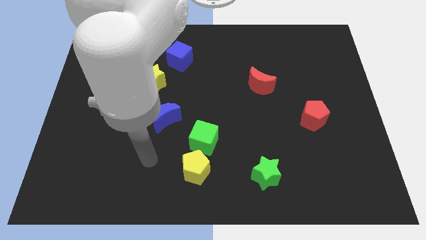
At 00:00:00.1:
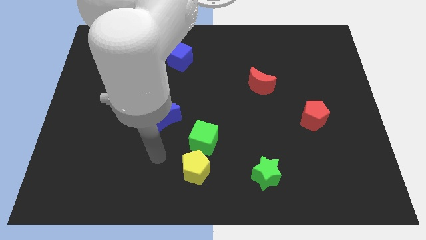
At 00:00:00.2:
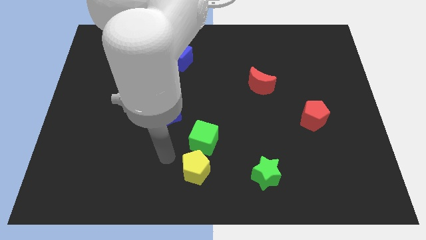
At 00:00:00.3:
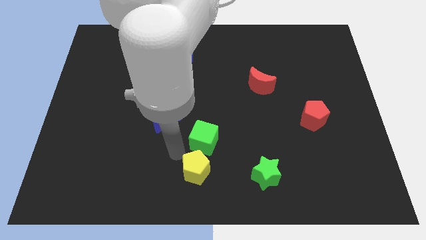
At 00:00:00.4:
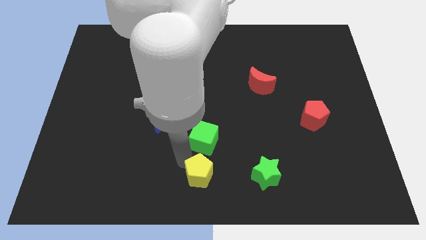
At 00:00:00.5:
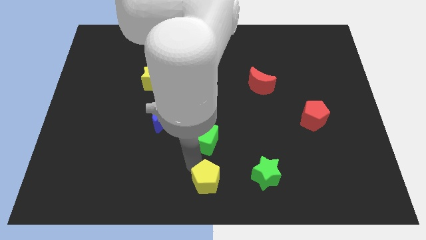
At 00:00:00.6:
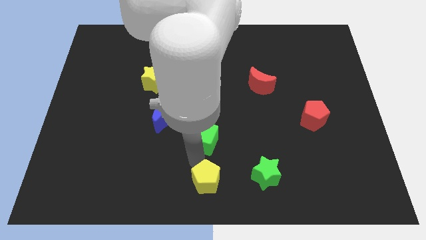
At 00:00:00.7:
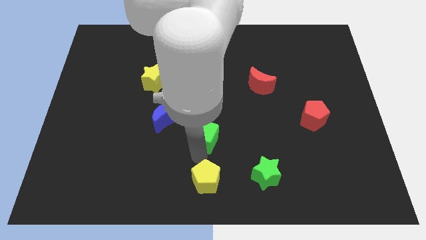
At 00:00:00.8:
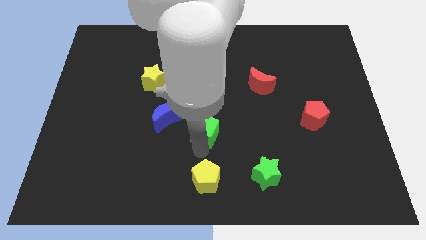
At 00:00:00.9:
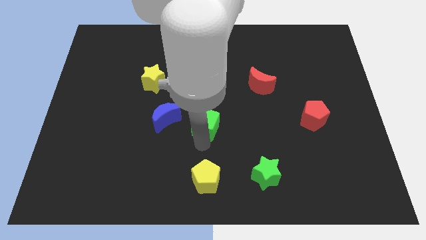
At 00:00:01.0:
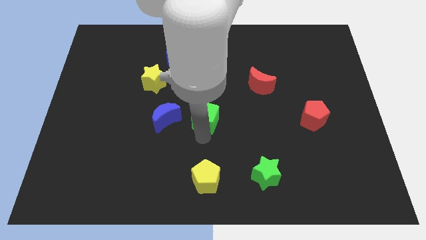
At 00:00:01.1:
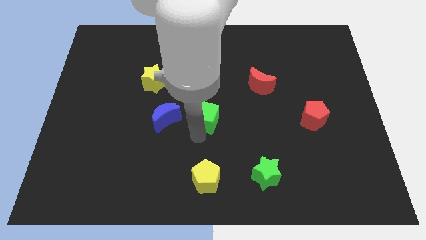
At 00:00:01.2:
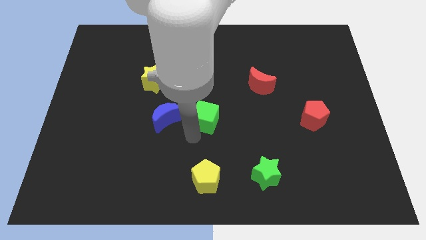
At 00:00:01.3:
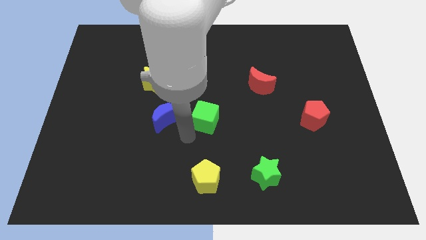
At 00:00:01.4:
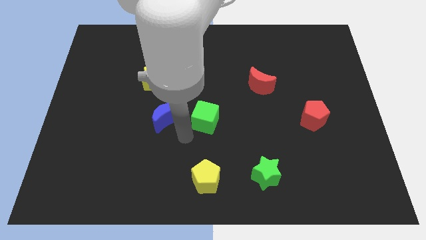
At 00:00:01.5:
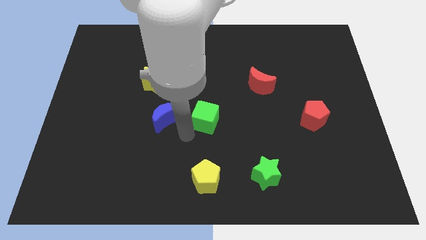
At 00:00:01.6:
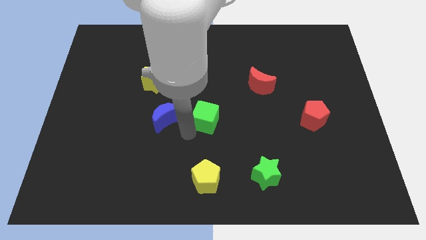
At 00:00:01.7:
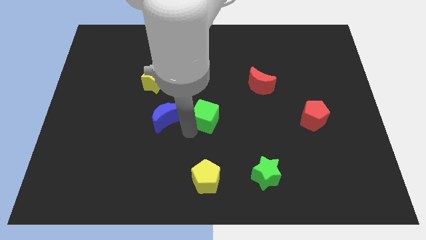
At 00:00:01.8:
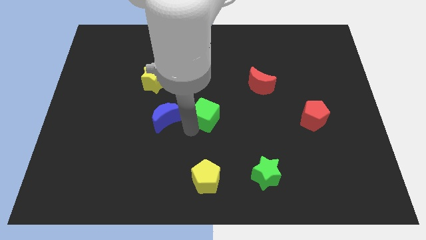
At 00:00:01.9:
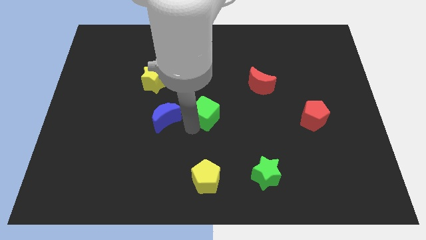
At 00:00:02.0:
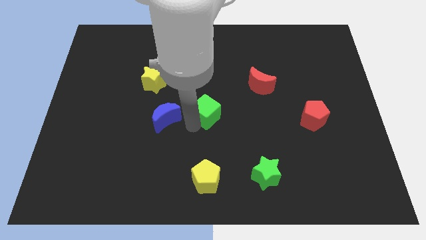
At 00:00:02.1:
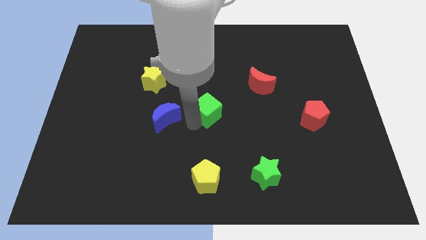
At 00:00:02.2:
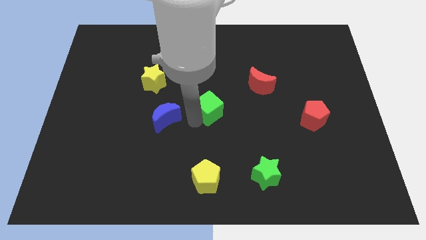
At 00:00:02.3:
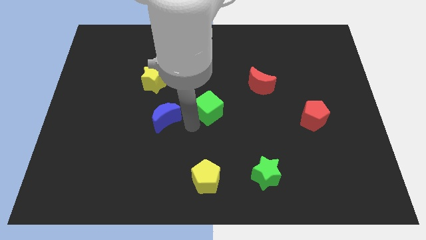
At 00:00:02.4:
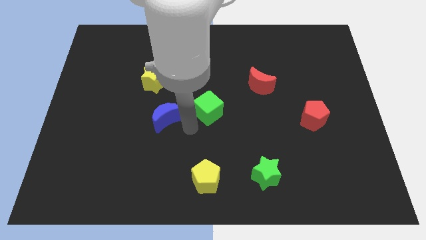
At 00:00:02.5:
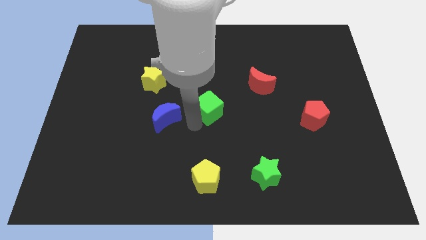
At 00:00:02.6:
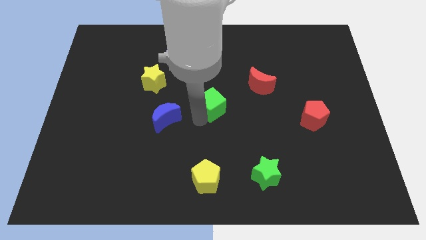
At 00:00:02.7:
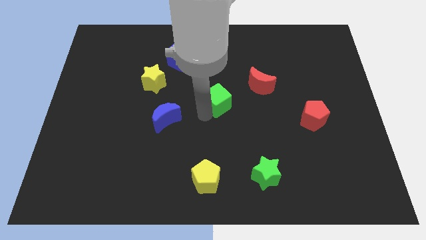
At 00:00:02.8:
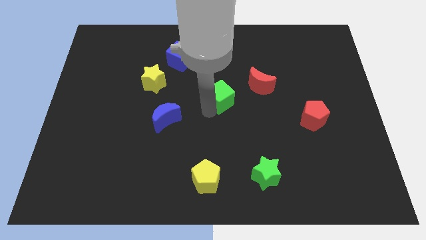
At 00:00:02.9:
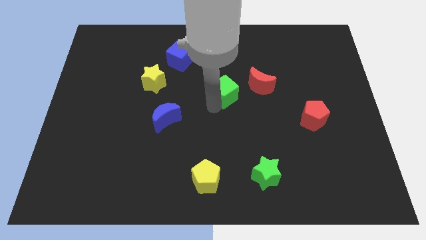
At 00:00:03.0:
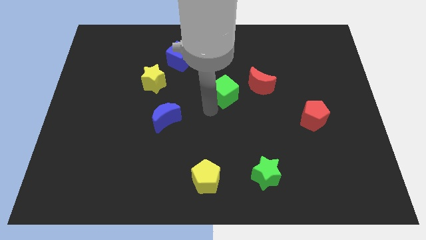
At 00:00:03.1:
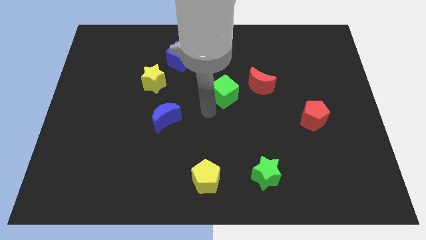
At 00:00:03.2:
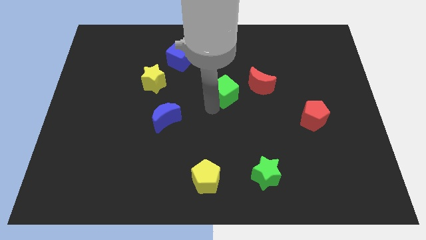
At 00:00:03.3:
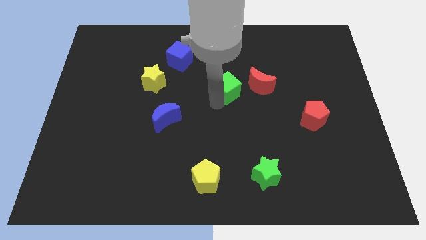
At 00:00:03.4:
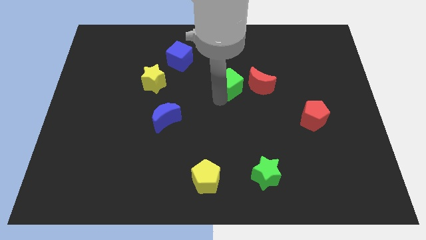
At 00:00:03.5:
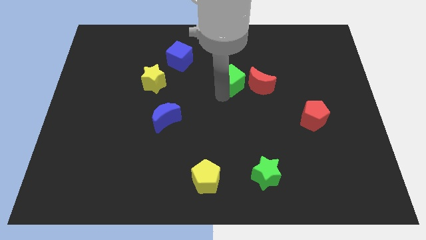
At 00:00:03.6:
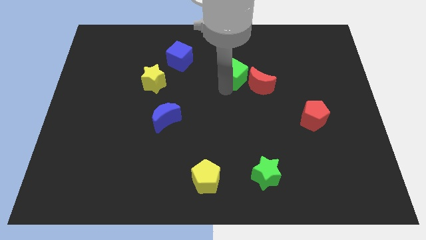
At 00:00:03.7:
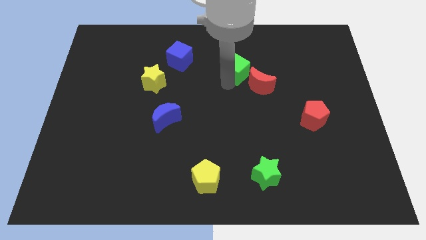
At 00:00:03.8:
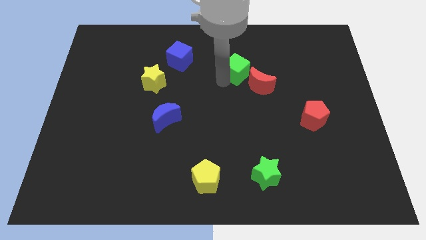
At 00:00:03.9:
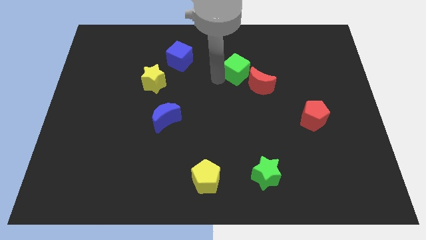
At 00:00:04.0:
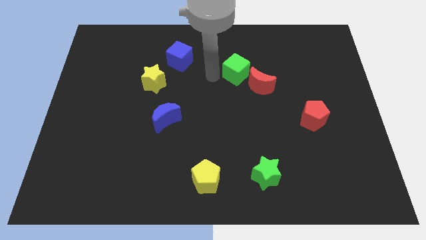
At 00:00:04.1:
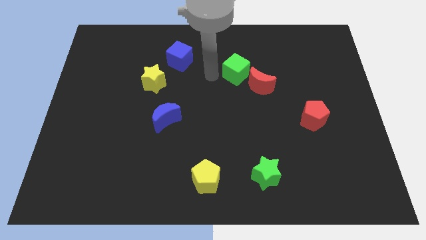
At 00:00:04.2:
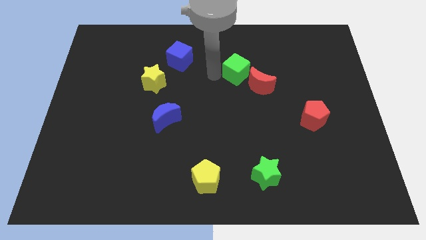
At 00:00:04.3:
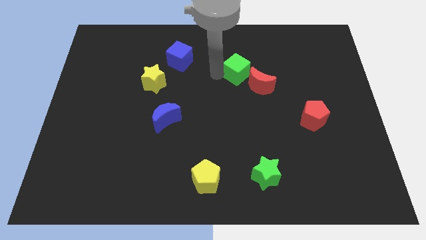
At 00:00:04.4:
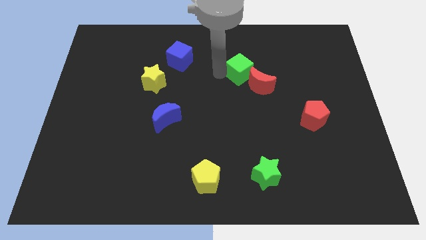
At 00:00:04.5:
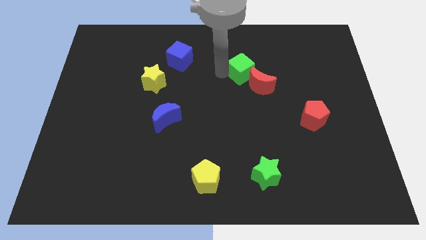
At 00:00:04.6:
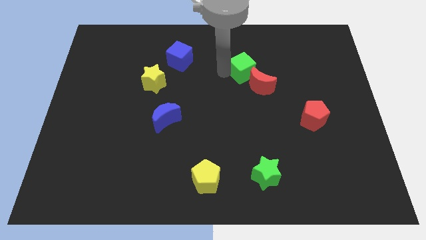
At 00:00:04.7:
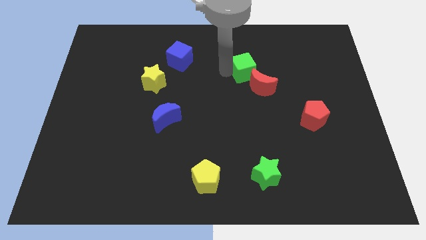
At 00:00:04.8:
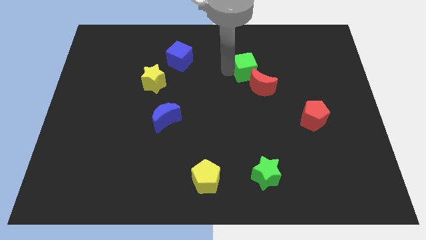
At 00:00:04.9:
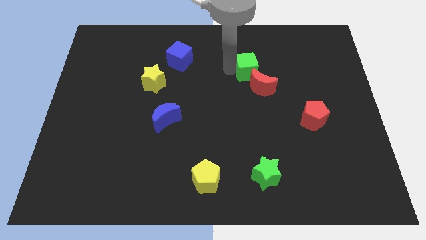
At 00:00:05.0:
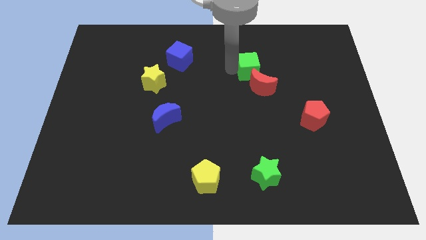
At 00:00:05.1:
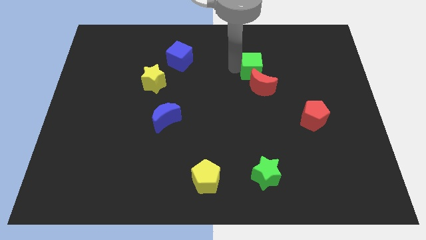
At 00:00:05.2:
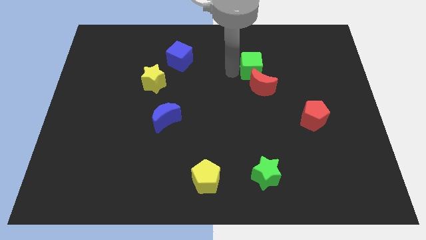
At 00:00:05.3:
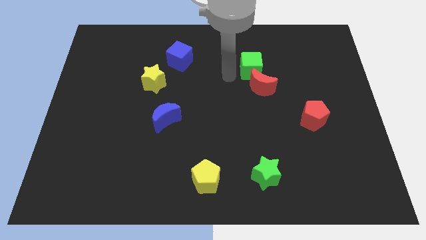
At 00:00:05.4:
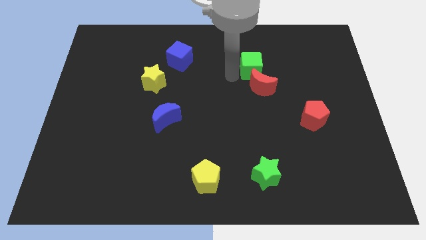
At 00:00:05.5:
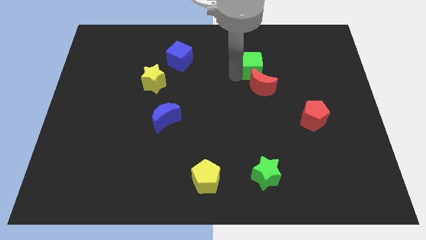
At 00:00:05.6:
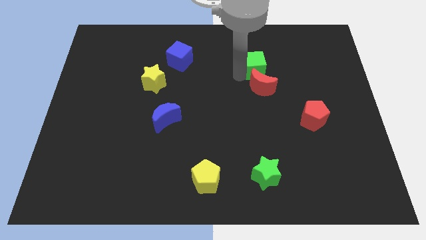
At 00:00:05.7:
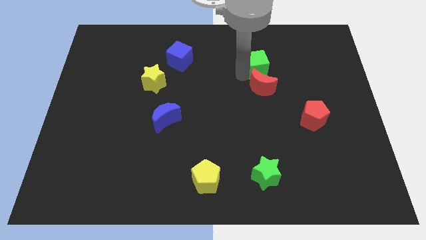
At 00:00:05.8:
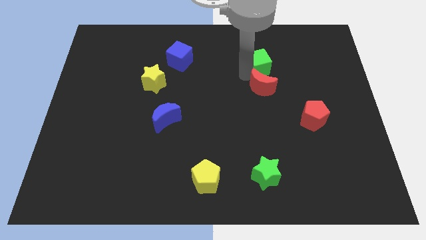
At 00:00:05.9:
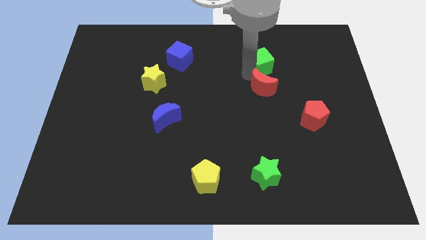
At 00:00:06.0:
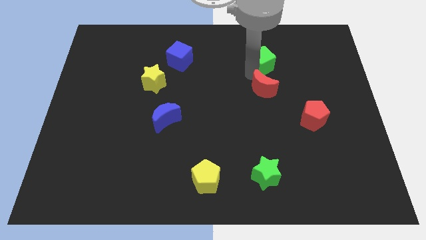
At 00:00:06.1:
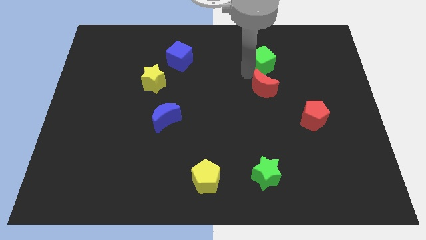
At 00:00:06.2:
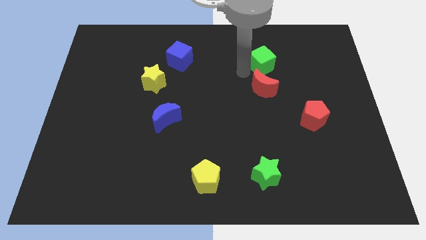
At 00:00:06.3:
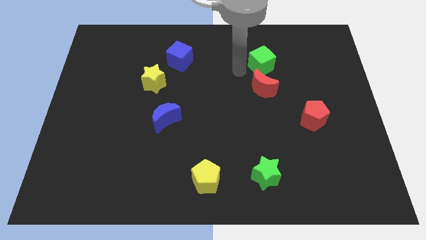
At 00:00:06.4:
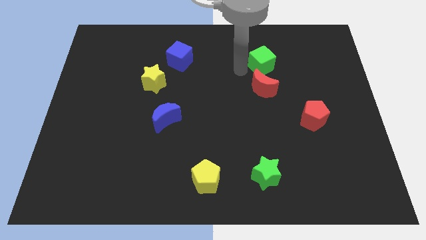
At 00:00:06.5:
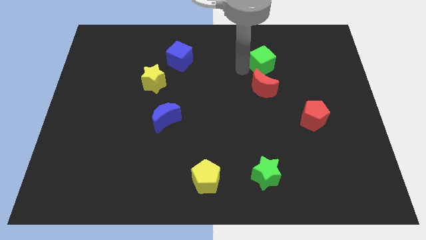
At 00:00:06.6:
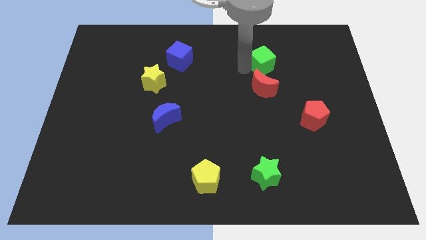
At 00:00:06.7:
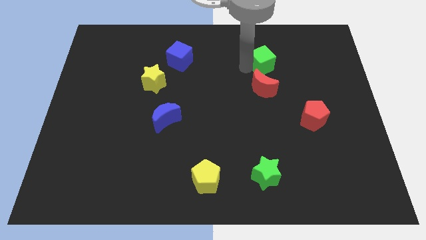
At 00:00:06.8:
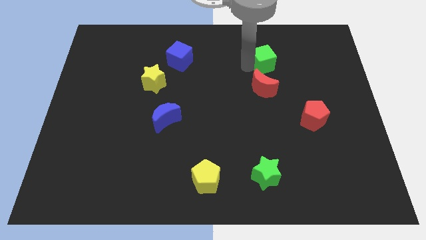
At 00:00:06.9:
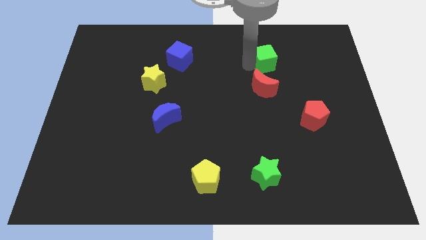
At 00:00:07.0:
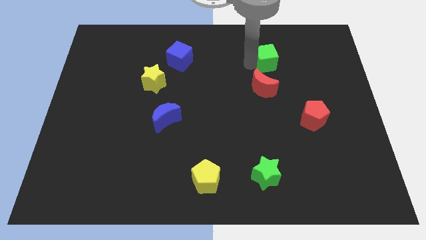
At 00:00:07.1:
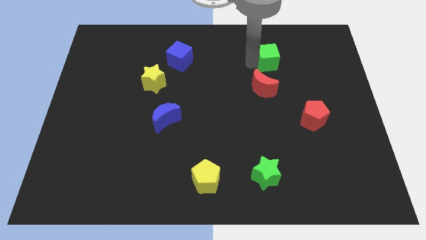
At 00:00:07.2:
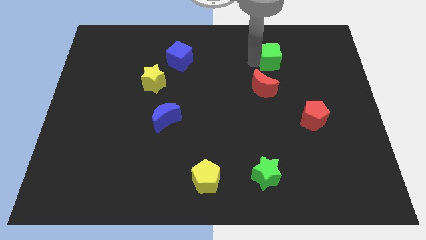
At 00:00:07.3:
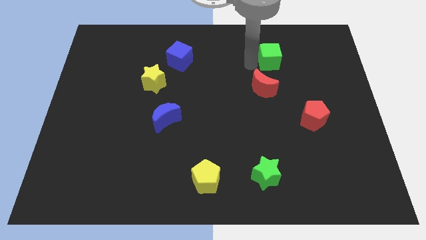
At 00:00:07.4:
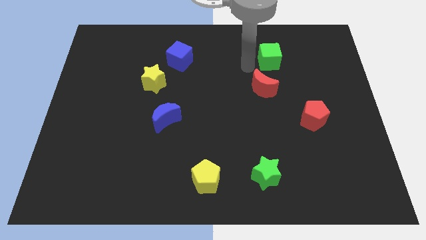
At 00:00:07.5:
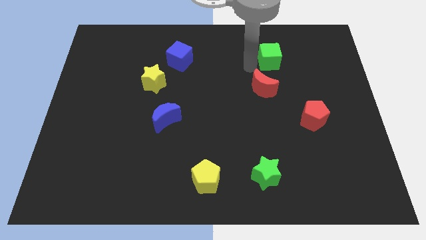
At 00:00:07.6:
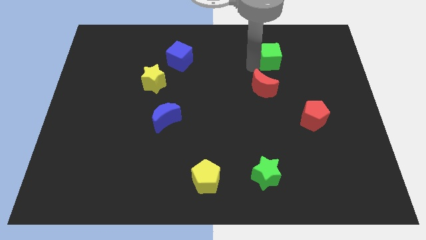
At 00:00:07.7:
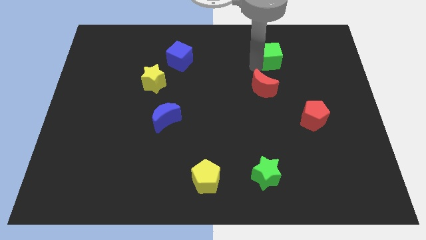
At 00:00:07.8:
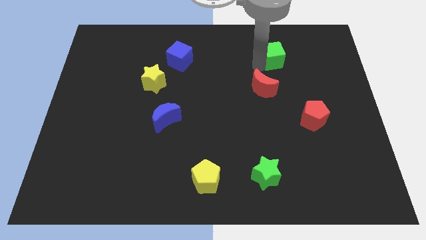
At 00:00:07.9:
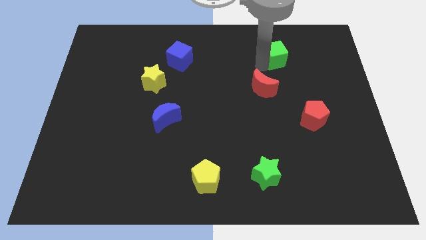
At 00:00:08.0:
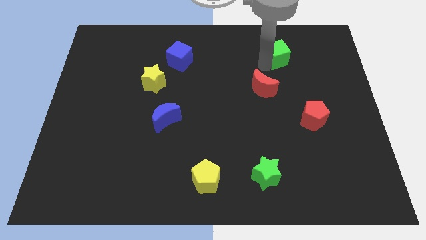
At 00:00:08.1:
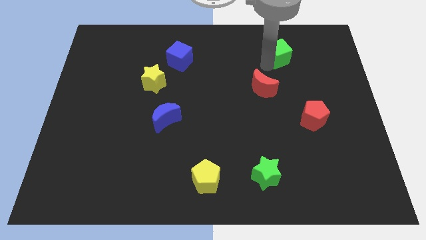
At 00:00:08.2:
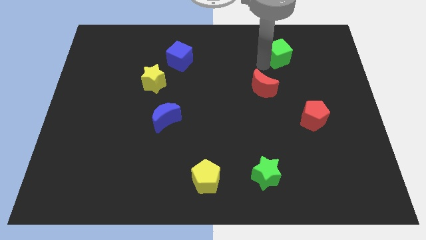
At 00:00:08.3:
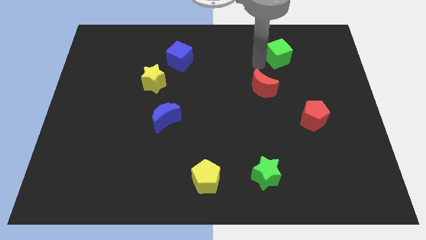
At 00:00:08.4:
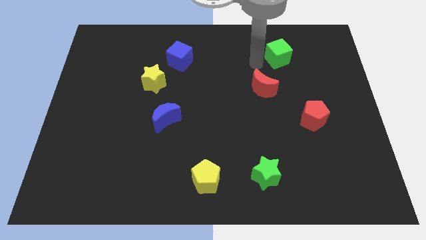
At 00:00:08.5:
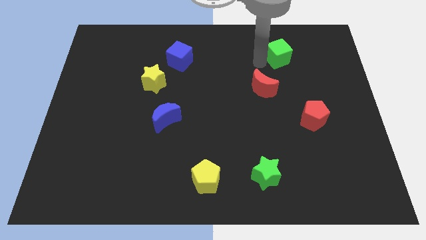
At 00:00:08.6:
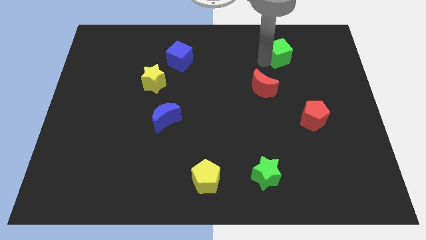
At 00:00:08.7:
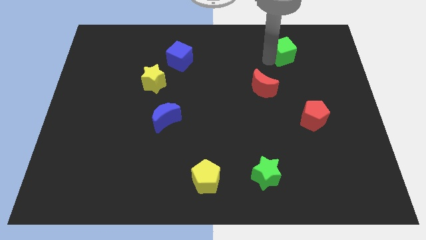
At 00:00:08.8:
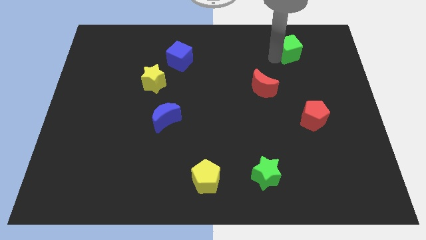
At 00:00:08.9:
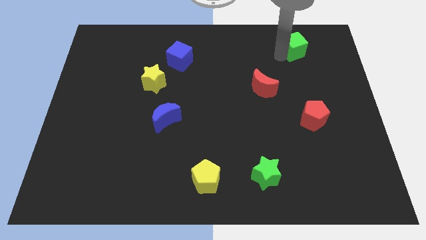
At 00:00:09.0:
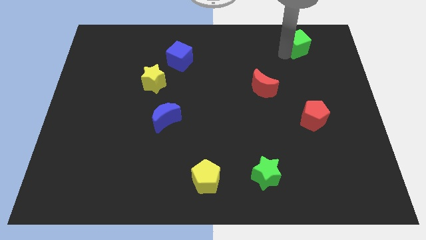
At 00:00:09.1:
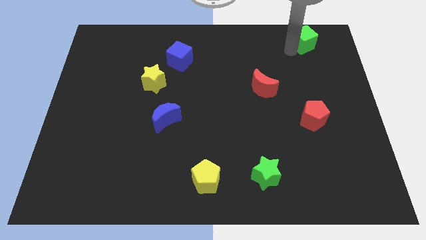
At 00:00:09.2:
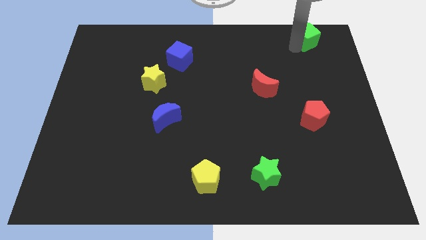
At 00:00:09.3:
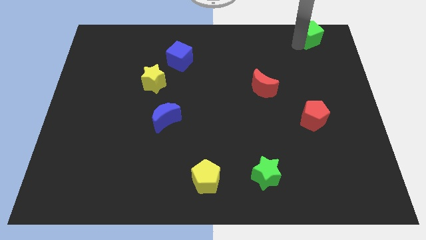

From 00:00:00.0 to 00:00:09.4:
push the green cube to the upper right corner
